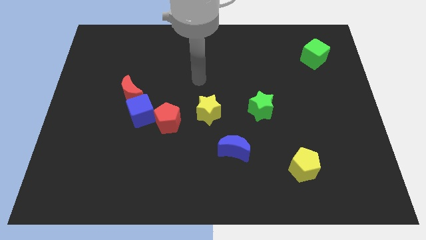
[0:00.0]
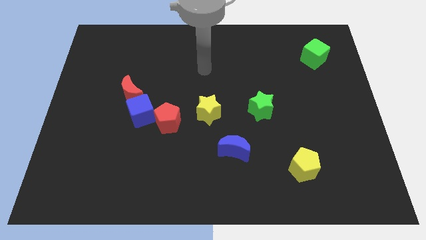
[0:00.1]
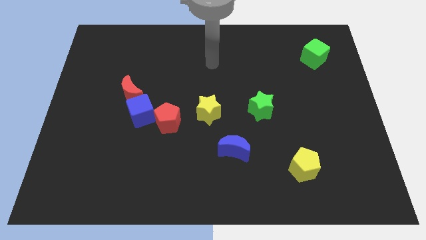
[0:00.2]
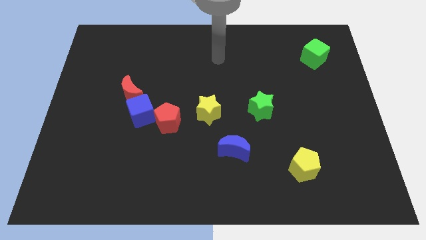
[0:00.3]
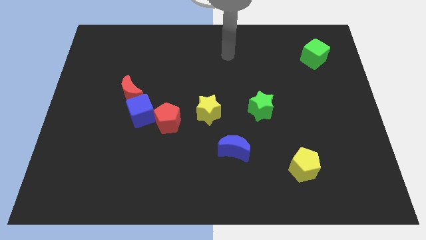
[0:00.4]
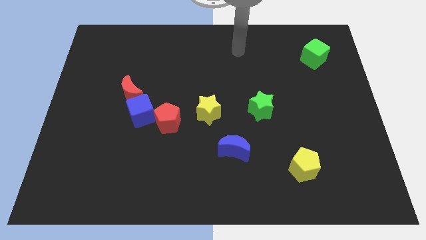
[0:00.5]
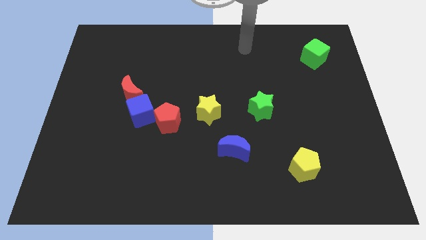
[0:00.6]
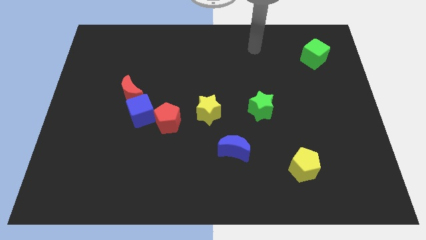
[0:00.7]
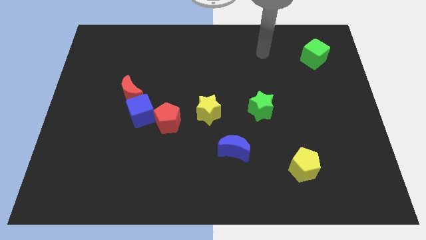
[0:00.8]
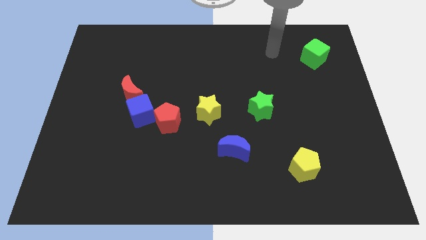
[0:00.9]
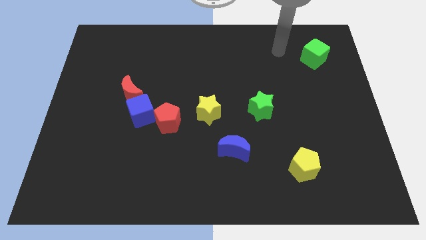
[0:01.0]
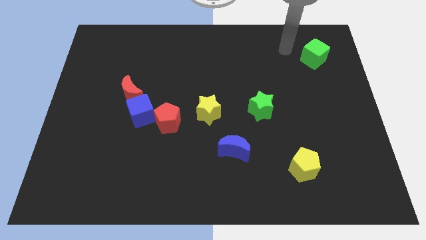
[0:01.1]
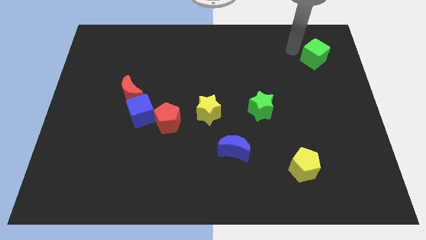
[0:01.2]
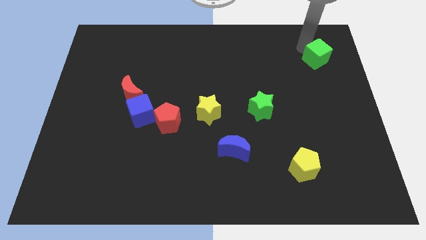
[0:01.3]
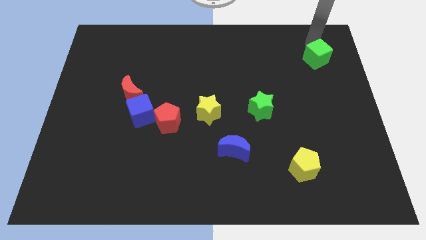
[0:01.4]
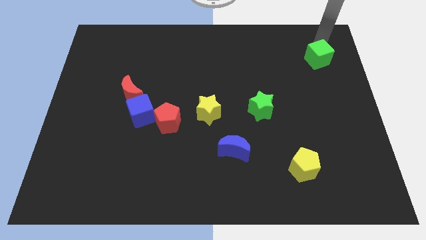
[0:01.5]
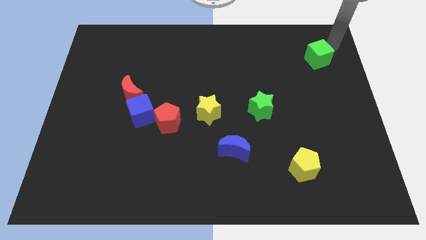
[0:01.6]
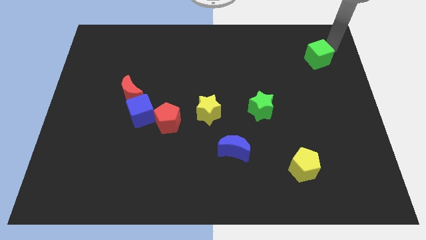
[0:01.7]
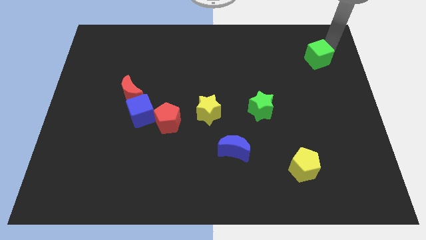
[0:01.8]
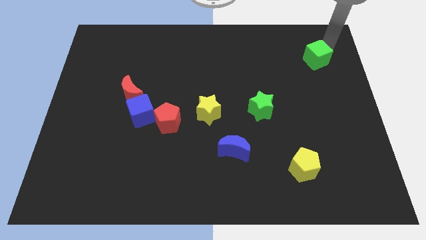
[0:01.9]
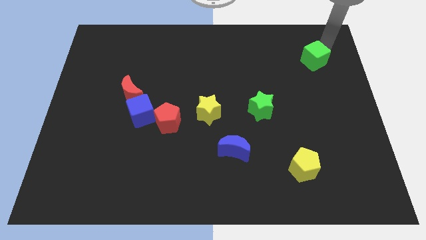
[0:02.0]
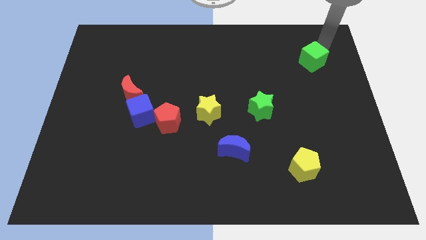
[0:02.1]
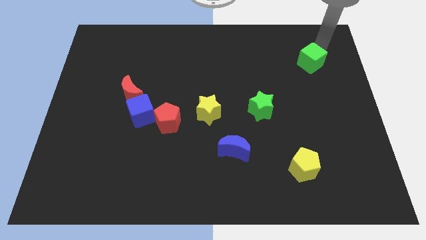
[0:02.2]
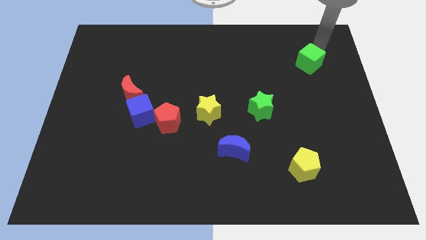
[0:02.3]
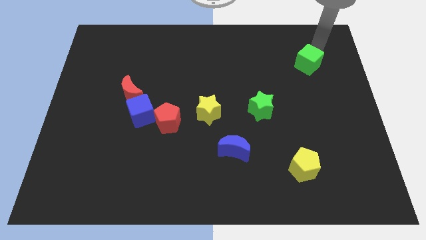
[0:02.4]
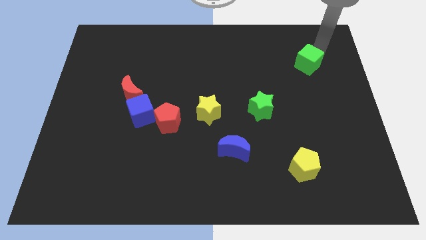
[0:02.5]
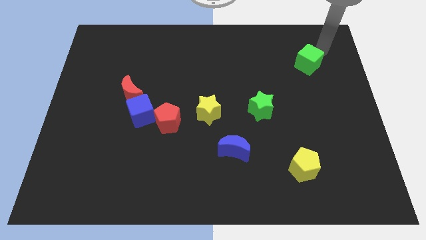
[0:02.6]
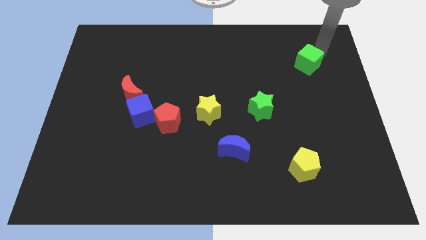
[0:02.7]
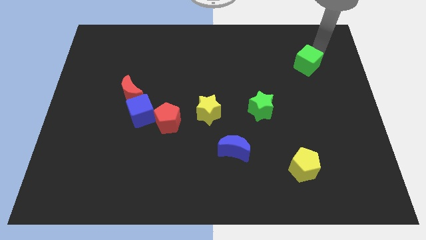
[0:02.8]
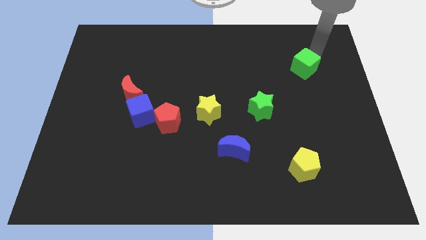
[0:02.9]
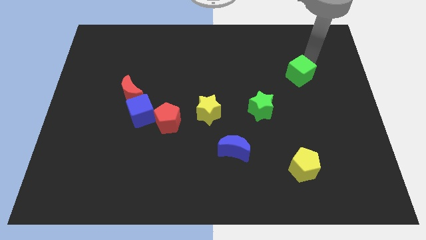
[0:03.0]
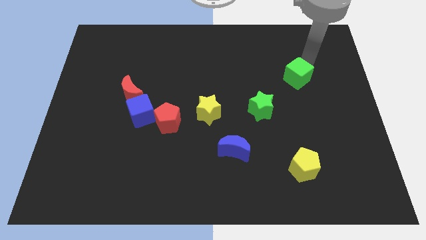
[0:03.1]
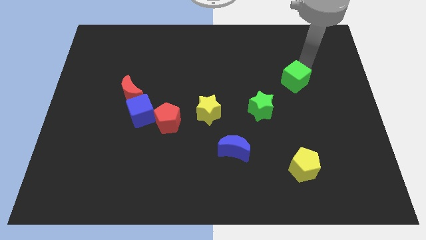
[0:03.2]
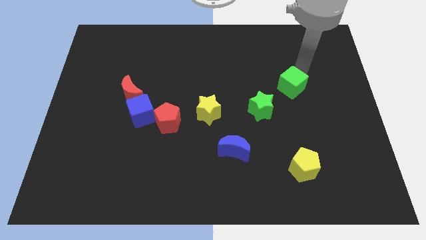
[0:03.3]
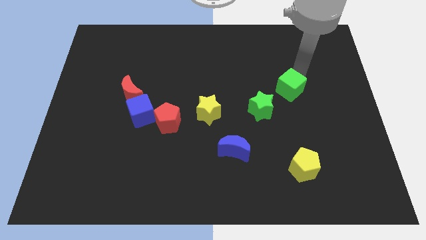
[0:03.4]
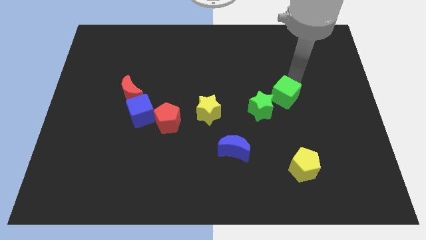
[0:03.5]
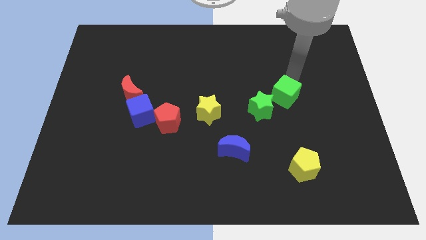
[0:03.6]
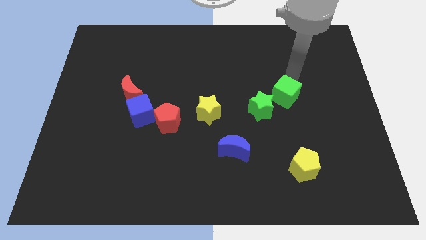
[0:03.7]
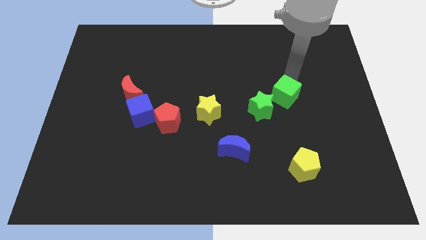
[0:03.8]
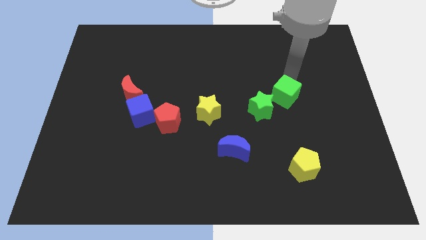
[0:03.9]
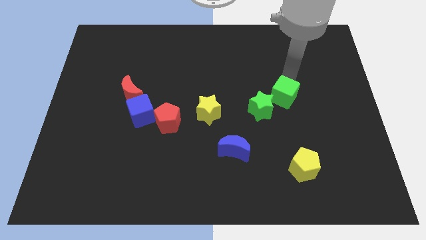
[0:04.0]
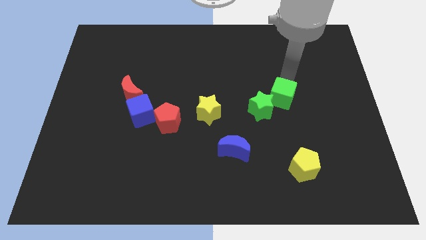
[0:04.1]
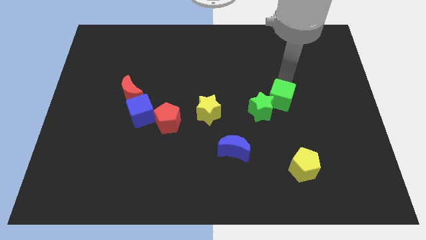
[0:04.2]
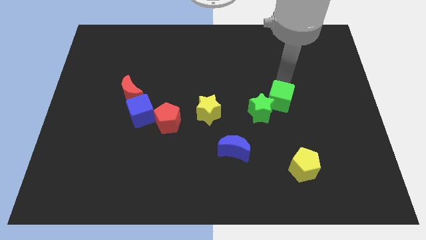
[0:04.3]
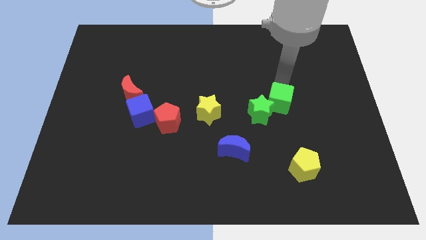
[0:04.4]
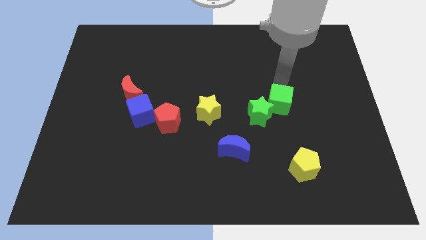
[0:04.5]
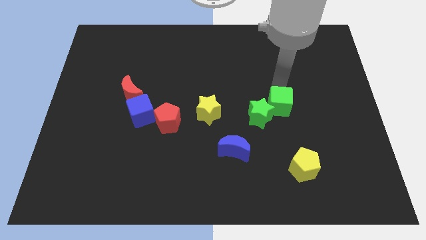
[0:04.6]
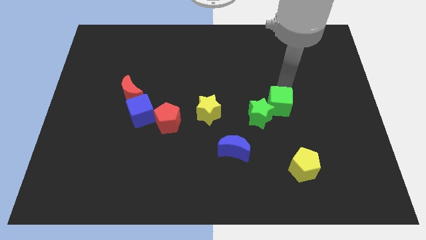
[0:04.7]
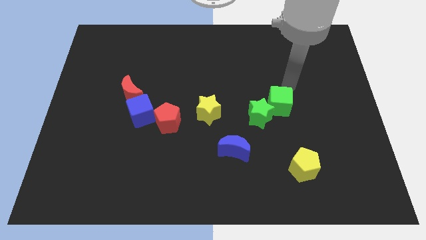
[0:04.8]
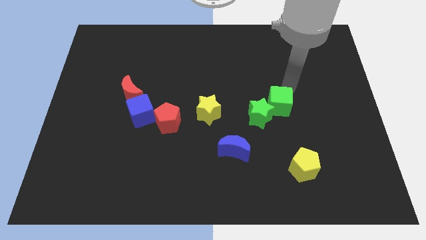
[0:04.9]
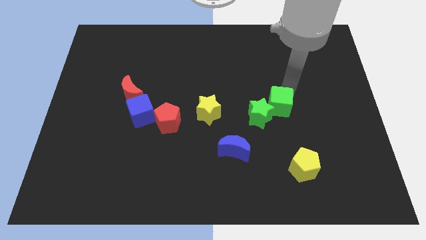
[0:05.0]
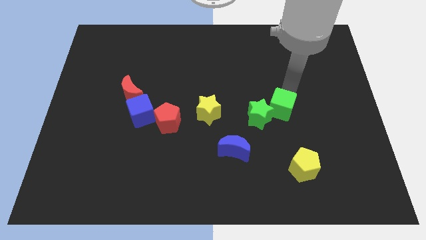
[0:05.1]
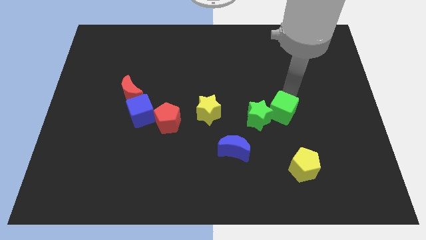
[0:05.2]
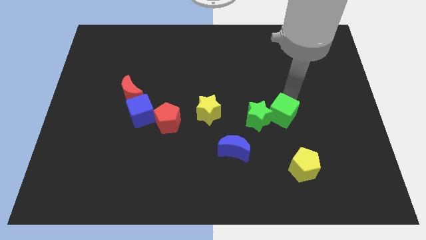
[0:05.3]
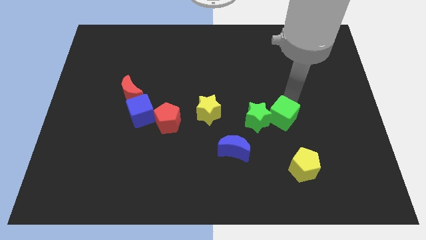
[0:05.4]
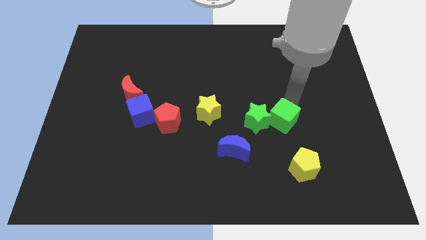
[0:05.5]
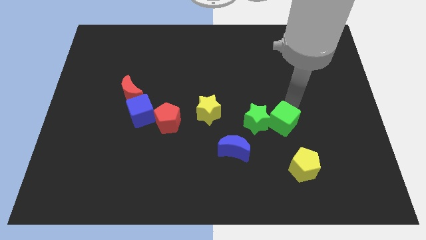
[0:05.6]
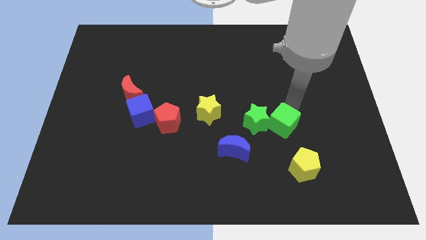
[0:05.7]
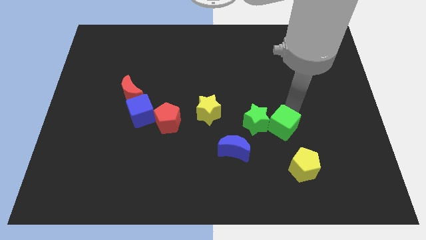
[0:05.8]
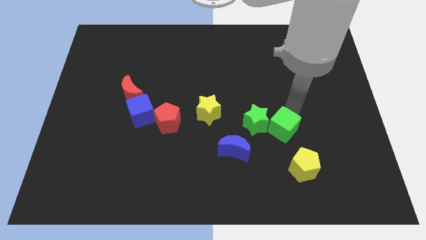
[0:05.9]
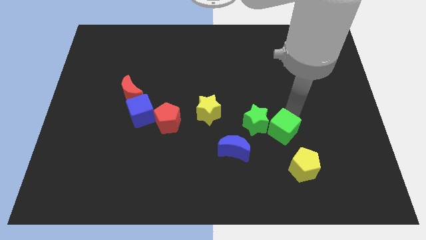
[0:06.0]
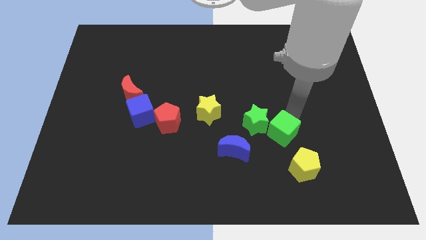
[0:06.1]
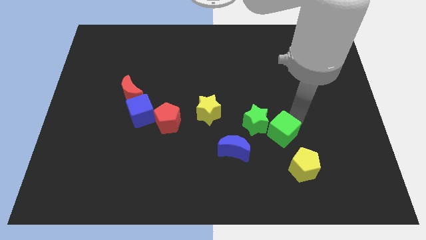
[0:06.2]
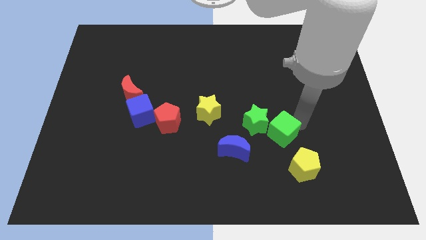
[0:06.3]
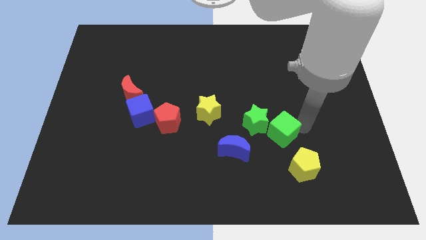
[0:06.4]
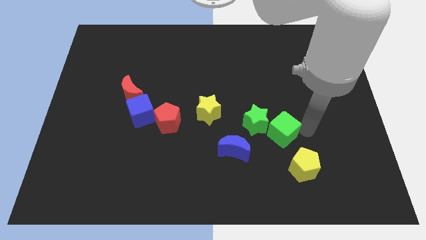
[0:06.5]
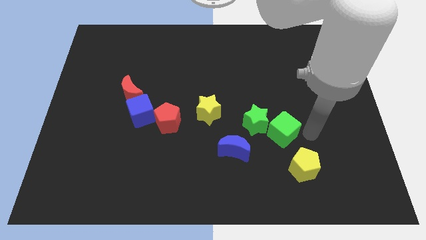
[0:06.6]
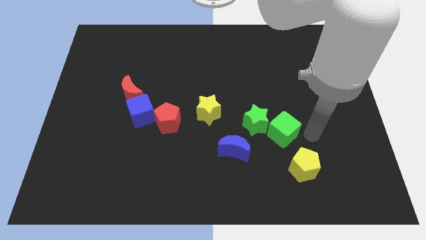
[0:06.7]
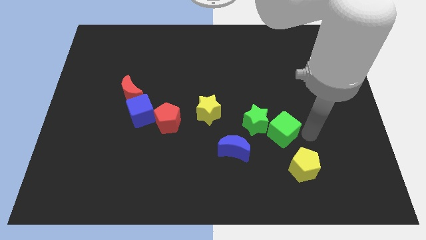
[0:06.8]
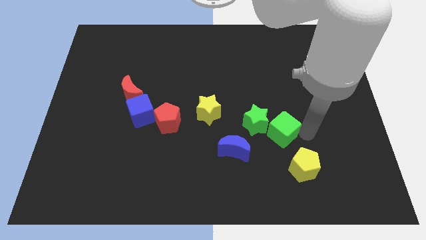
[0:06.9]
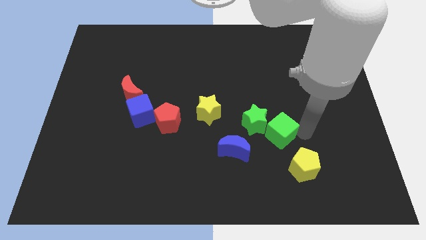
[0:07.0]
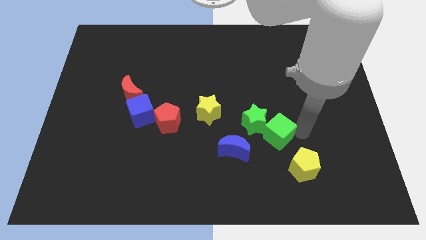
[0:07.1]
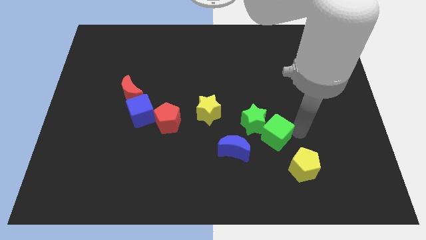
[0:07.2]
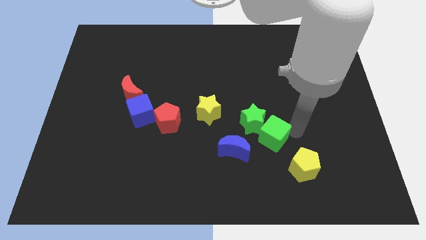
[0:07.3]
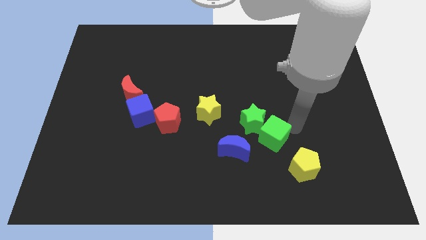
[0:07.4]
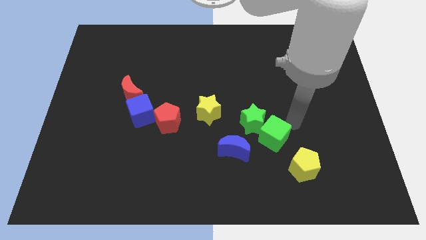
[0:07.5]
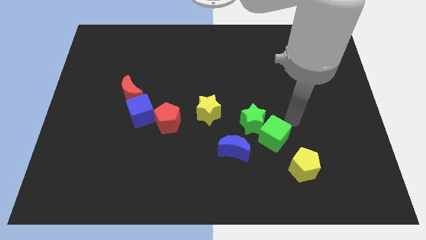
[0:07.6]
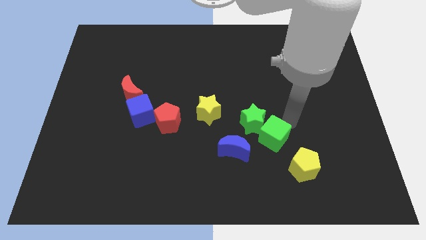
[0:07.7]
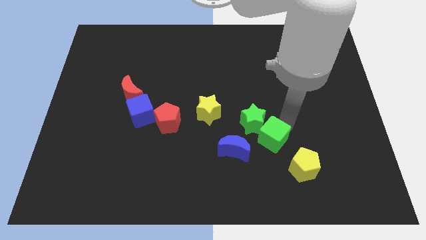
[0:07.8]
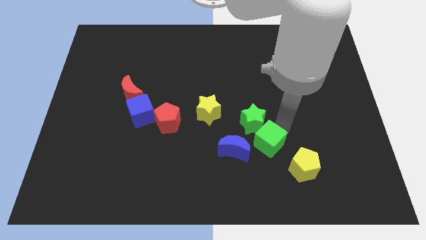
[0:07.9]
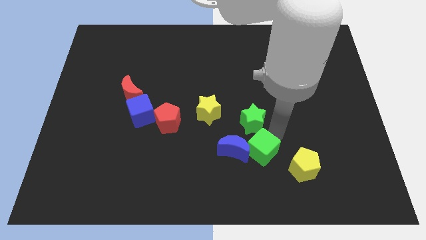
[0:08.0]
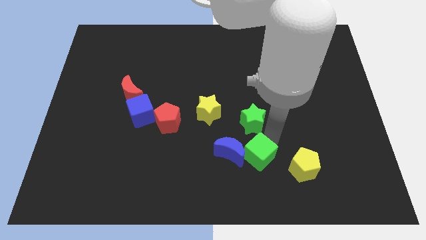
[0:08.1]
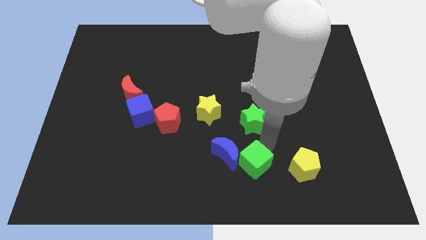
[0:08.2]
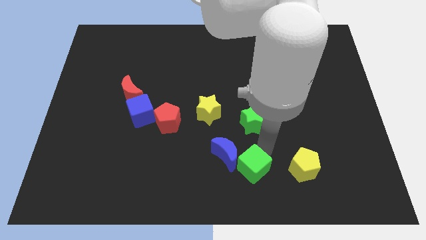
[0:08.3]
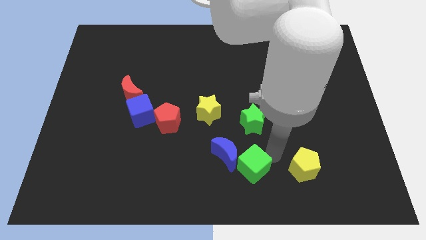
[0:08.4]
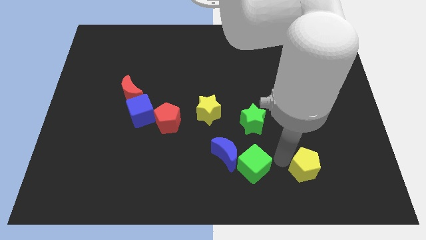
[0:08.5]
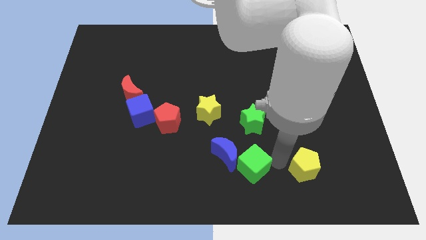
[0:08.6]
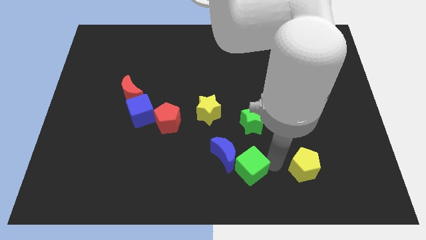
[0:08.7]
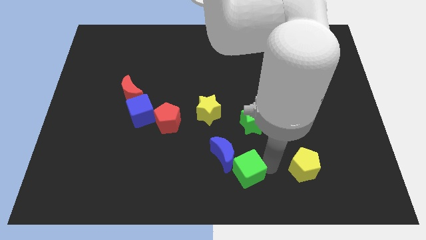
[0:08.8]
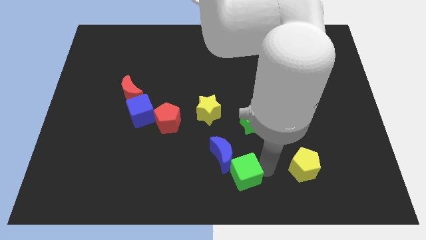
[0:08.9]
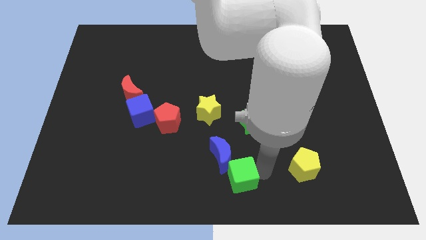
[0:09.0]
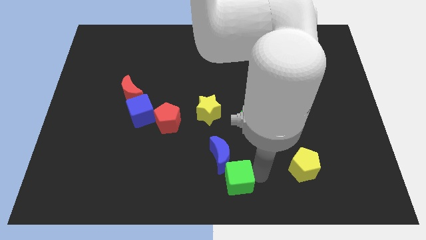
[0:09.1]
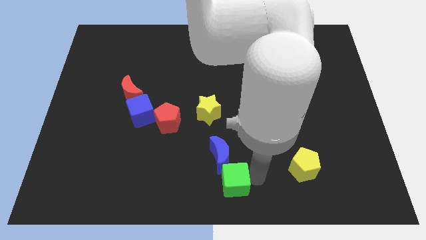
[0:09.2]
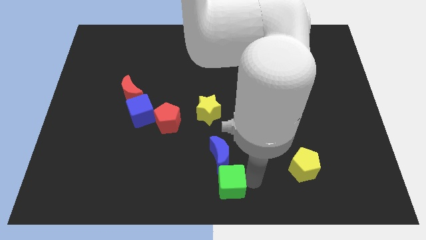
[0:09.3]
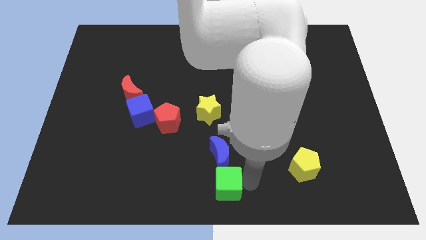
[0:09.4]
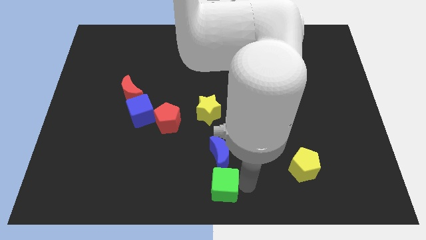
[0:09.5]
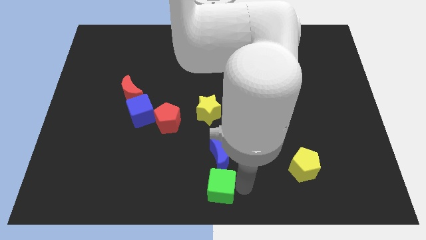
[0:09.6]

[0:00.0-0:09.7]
slide the green cube diagonally down and to the left of the blue moon
